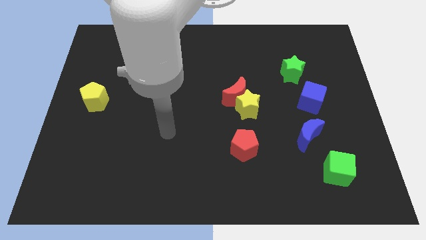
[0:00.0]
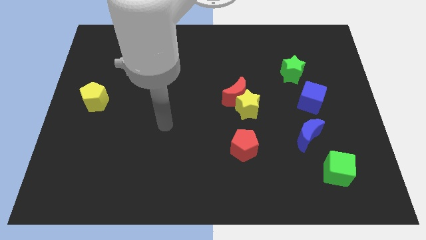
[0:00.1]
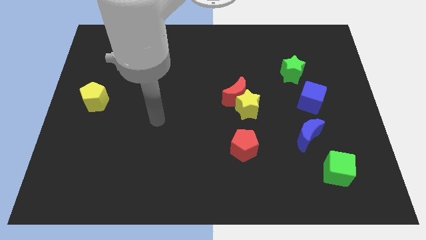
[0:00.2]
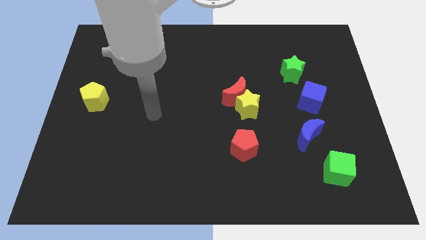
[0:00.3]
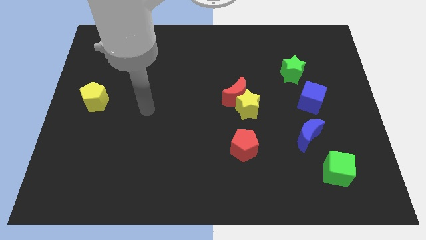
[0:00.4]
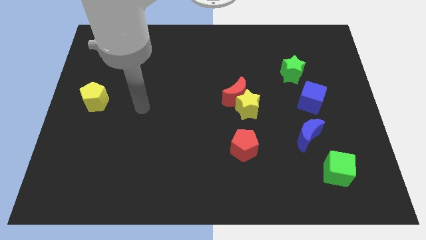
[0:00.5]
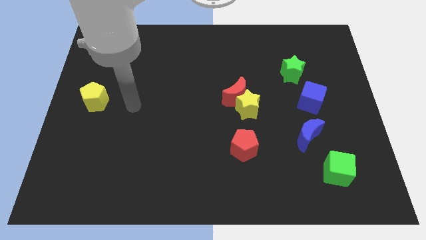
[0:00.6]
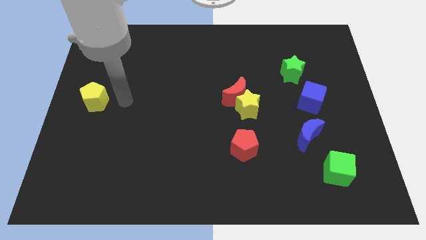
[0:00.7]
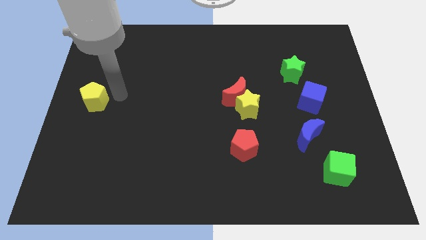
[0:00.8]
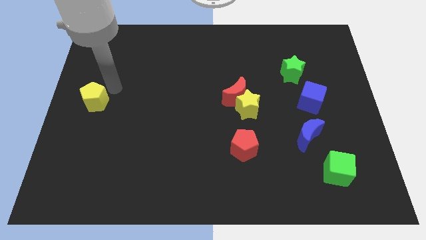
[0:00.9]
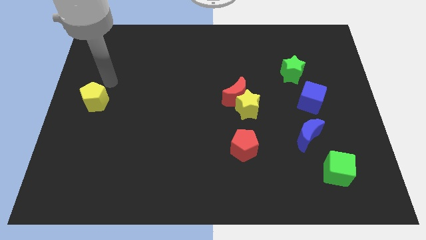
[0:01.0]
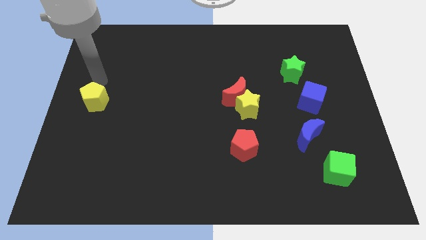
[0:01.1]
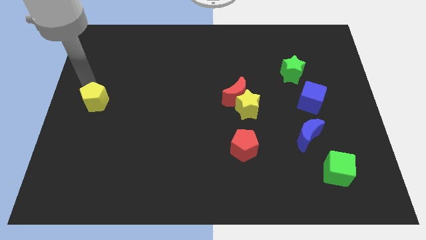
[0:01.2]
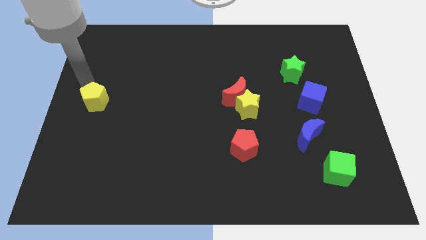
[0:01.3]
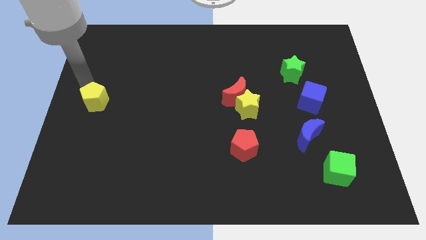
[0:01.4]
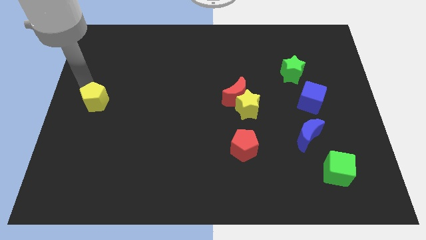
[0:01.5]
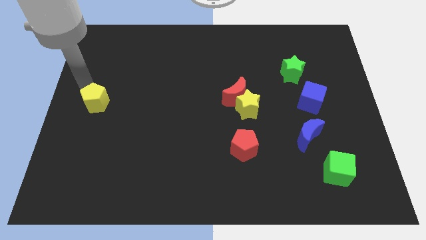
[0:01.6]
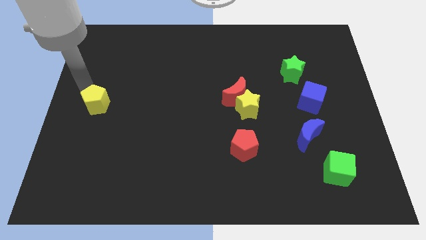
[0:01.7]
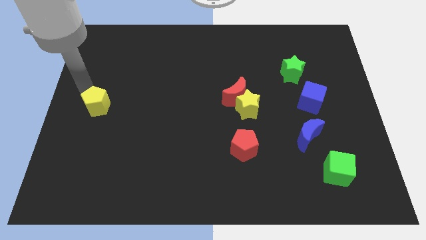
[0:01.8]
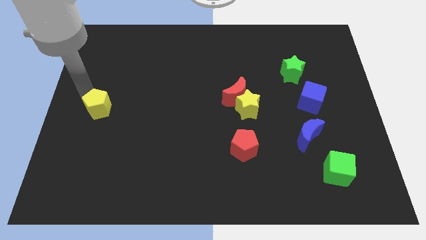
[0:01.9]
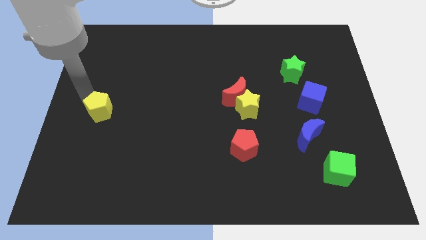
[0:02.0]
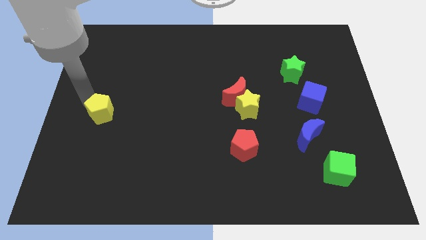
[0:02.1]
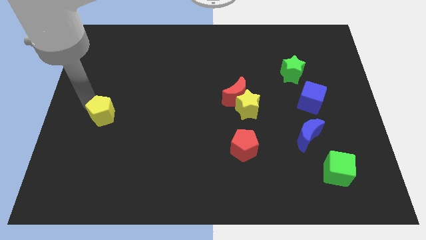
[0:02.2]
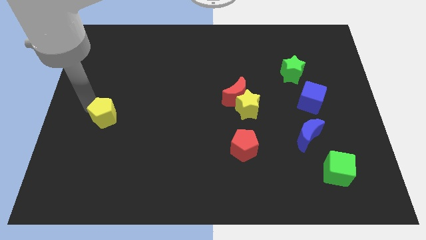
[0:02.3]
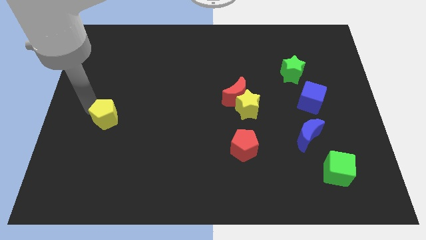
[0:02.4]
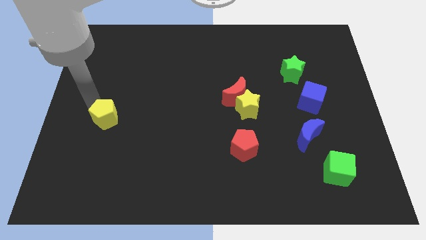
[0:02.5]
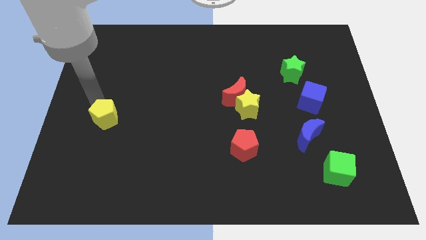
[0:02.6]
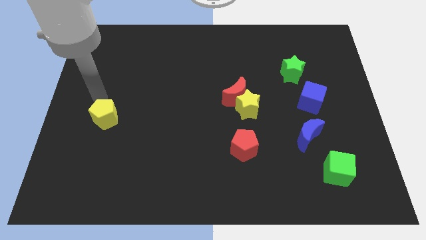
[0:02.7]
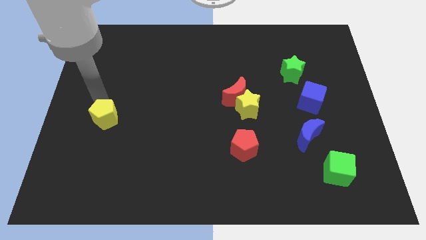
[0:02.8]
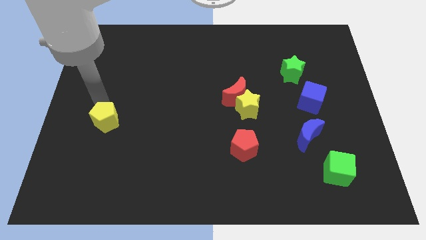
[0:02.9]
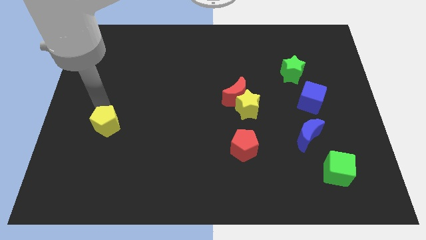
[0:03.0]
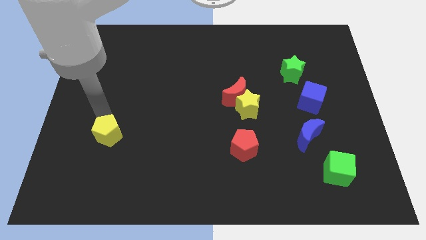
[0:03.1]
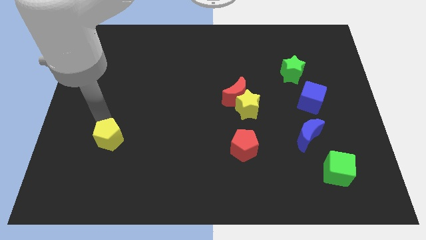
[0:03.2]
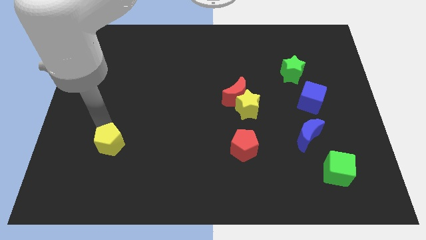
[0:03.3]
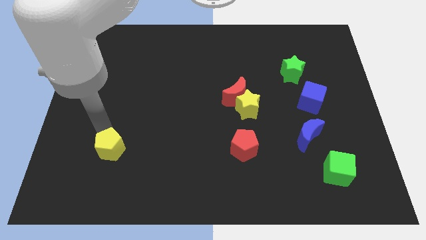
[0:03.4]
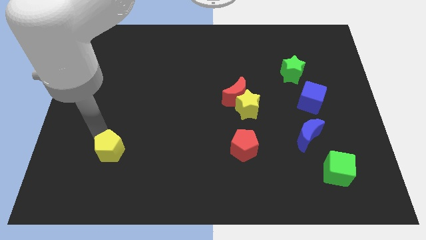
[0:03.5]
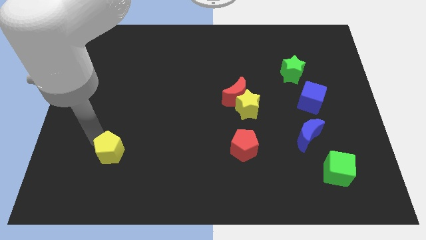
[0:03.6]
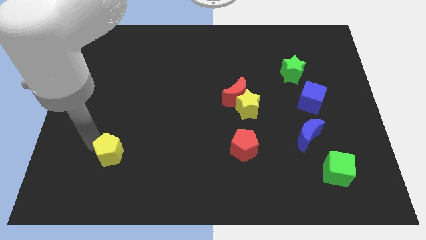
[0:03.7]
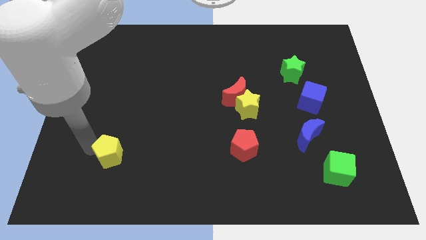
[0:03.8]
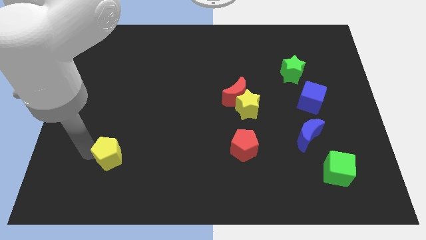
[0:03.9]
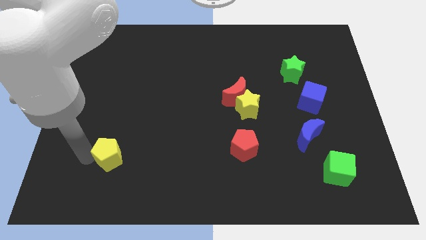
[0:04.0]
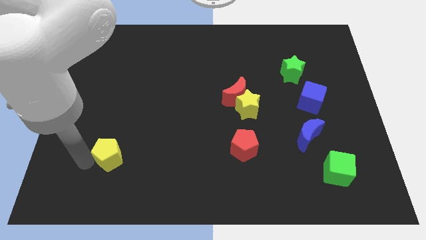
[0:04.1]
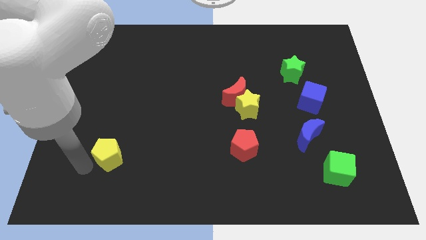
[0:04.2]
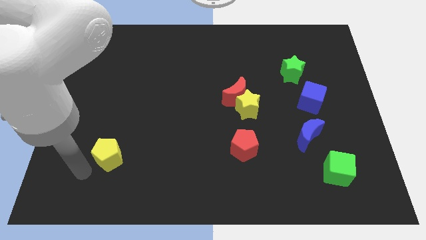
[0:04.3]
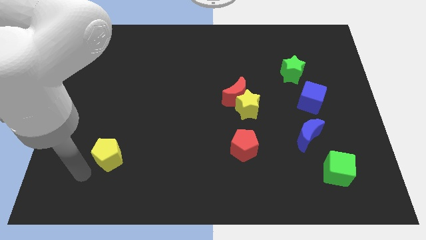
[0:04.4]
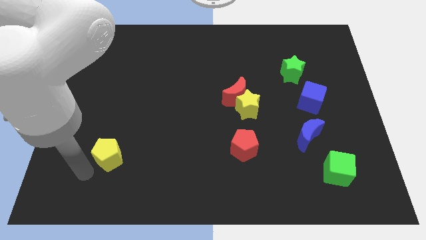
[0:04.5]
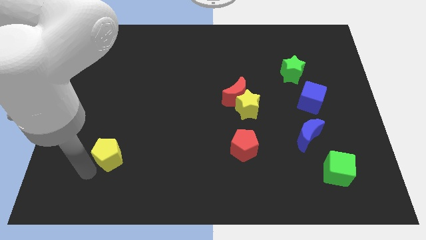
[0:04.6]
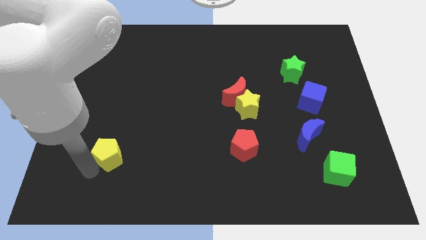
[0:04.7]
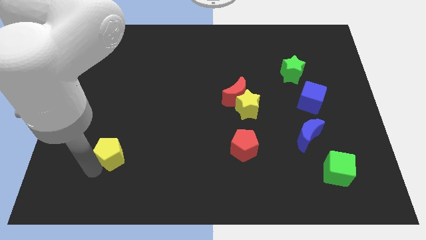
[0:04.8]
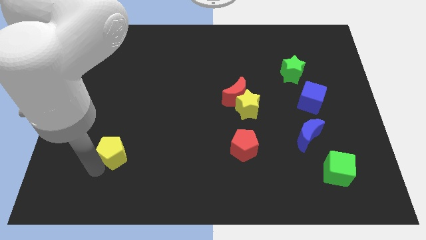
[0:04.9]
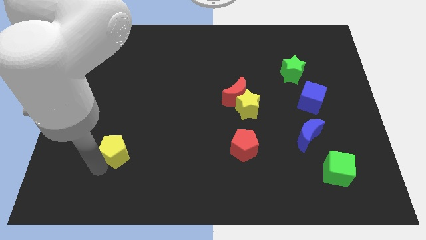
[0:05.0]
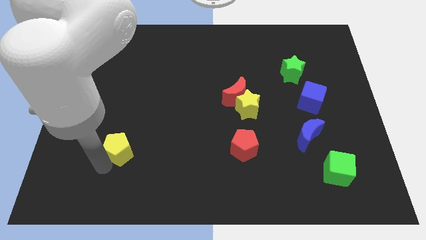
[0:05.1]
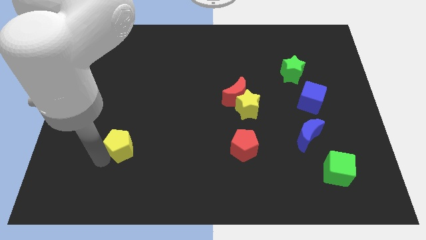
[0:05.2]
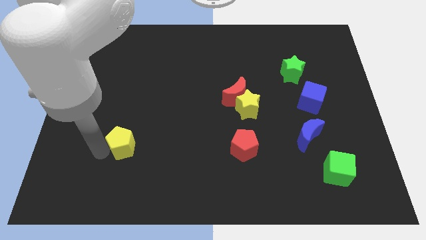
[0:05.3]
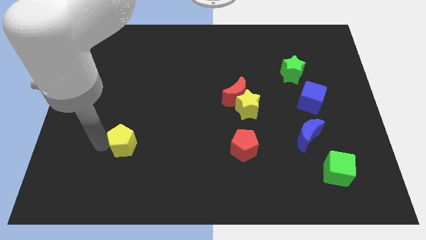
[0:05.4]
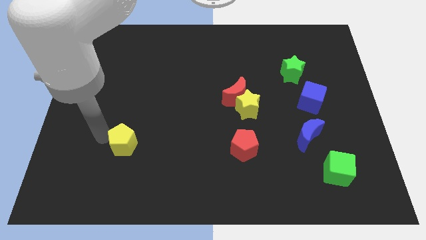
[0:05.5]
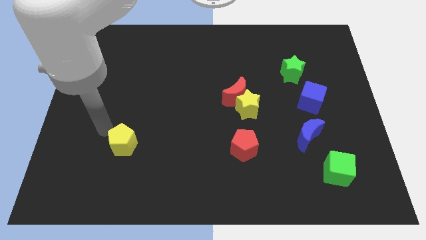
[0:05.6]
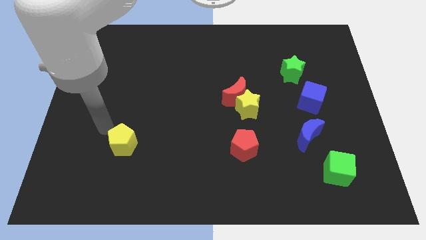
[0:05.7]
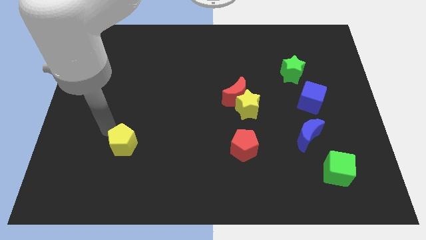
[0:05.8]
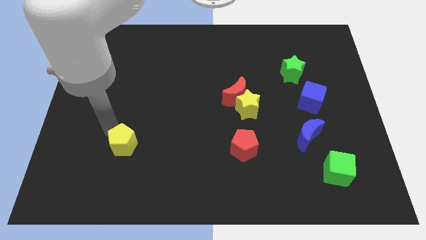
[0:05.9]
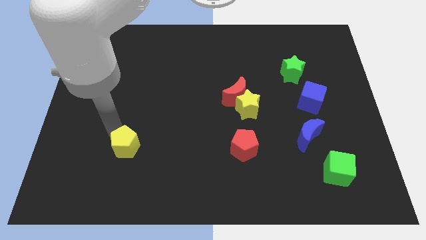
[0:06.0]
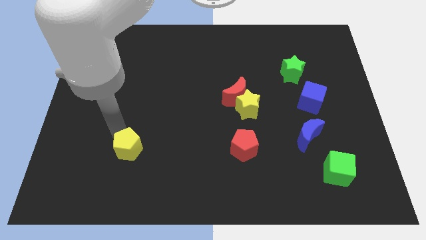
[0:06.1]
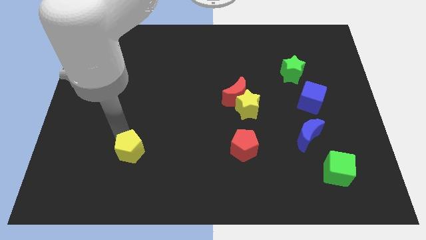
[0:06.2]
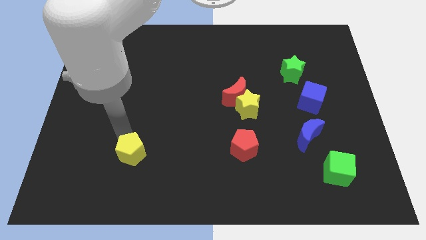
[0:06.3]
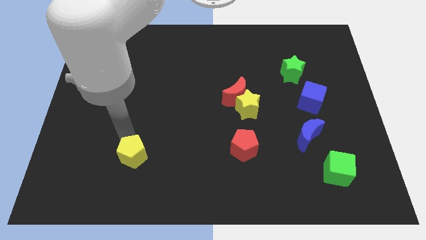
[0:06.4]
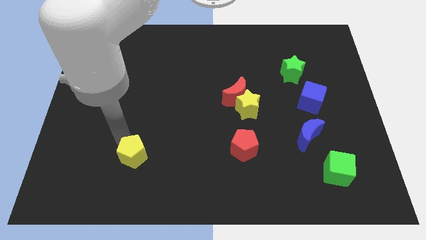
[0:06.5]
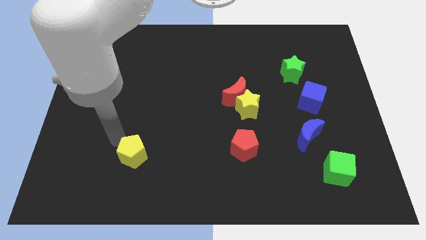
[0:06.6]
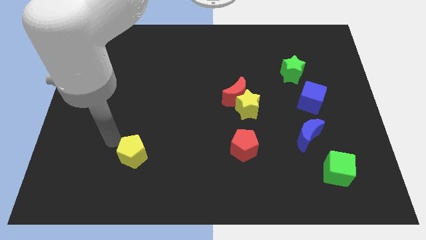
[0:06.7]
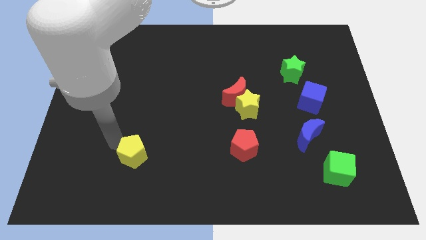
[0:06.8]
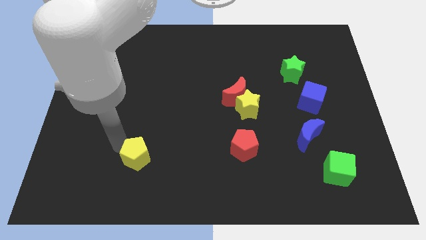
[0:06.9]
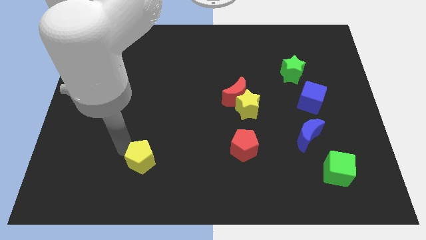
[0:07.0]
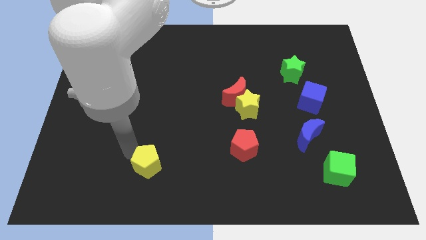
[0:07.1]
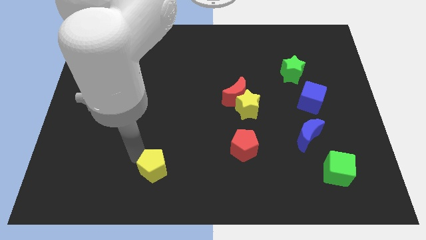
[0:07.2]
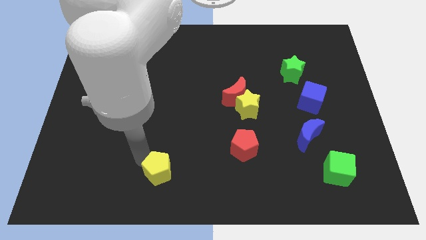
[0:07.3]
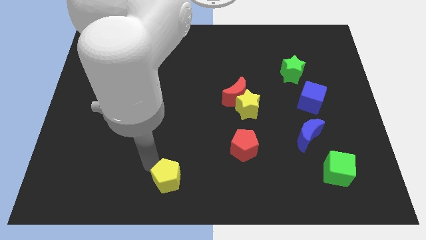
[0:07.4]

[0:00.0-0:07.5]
slide the yellow pentagon to the bottom side

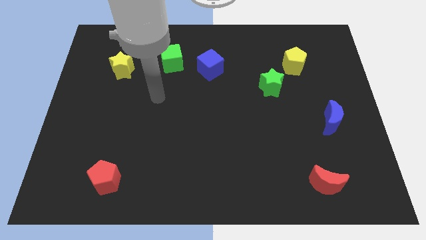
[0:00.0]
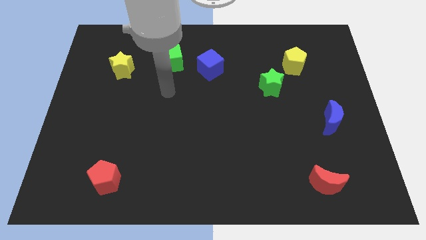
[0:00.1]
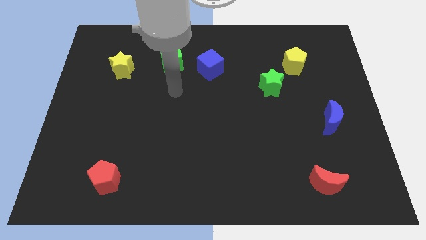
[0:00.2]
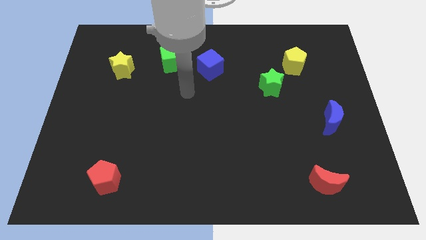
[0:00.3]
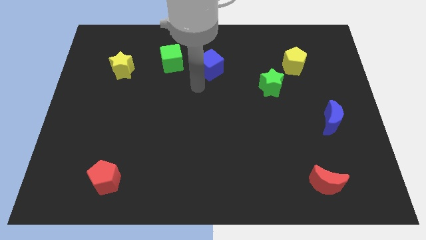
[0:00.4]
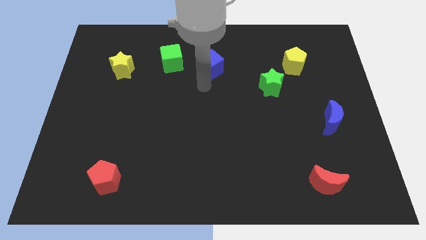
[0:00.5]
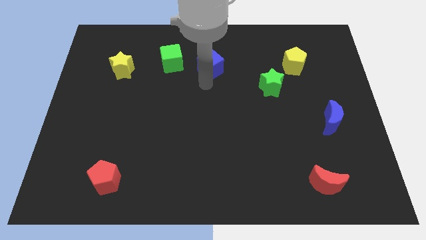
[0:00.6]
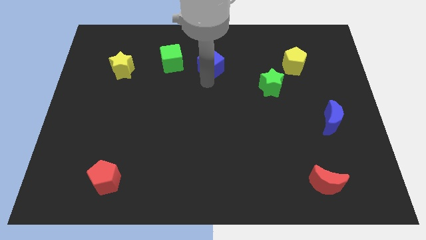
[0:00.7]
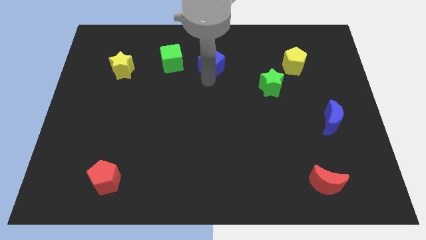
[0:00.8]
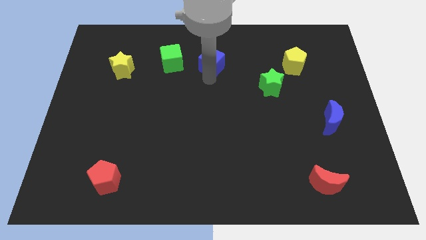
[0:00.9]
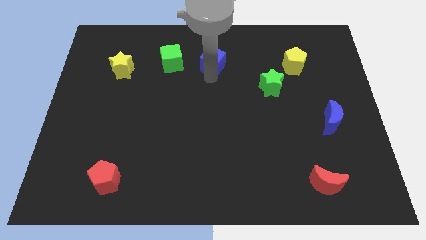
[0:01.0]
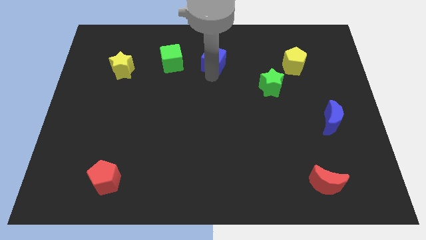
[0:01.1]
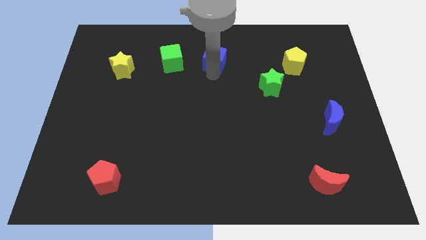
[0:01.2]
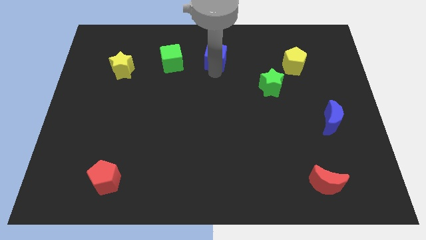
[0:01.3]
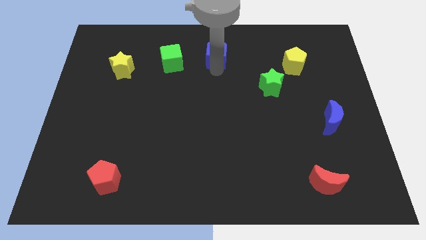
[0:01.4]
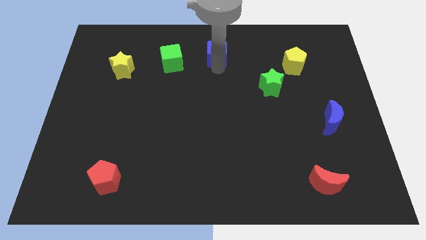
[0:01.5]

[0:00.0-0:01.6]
slide the blue cube to the top side
